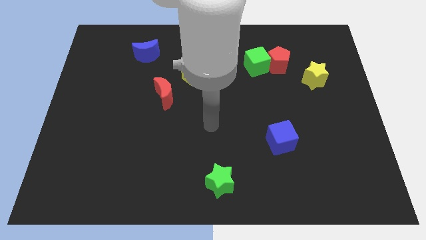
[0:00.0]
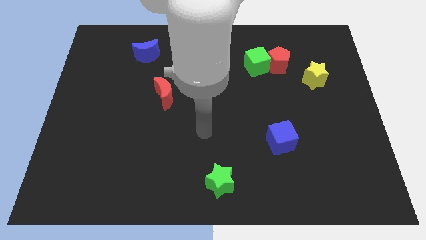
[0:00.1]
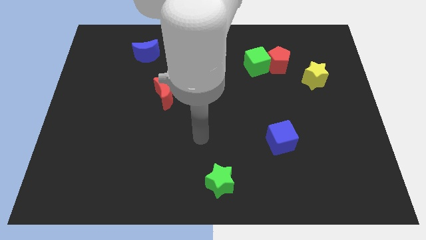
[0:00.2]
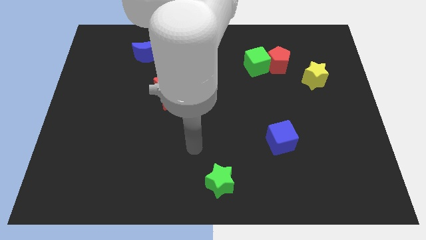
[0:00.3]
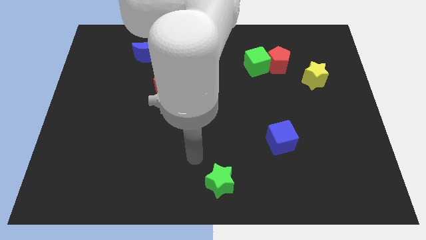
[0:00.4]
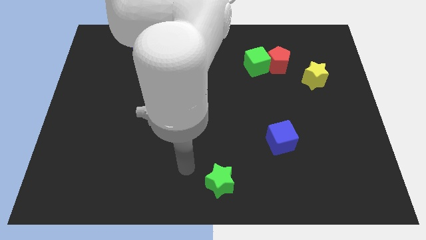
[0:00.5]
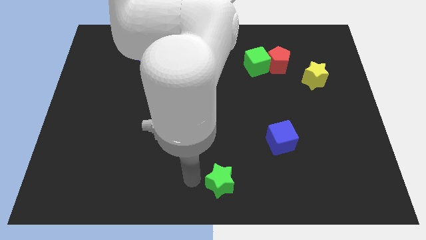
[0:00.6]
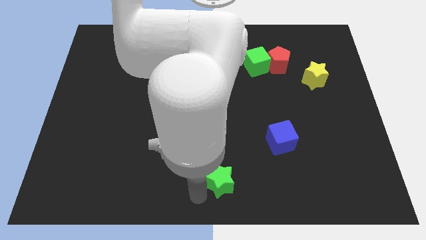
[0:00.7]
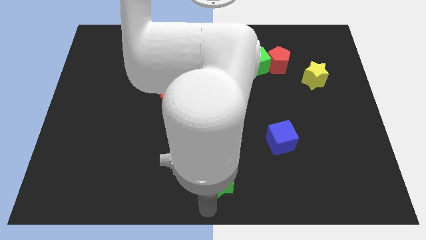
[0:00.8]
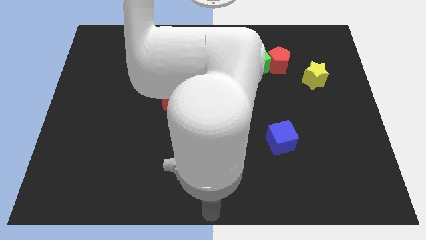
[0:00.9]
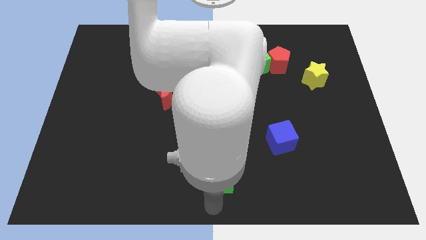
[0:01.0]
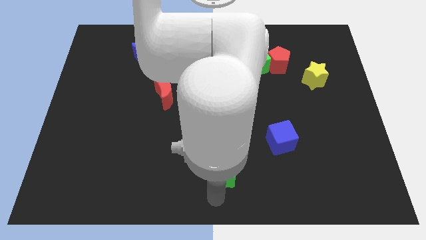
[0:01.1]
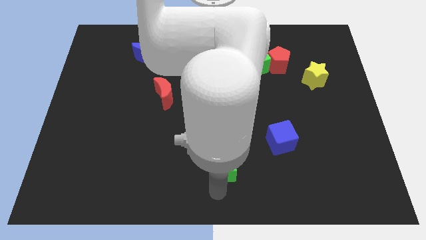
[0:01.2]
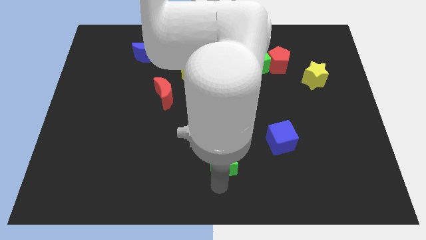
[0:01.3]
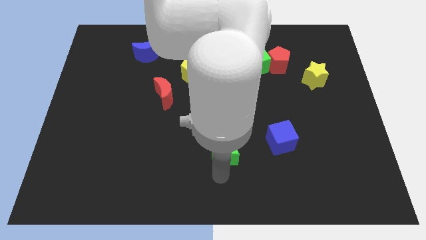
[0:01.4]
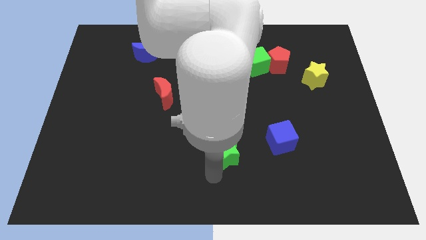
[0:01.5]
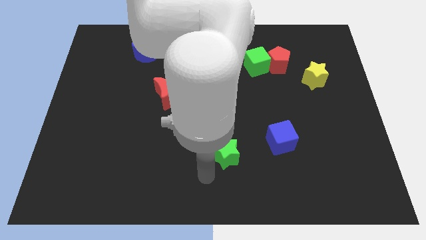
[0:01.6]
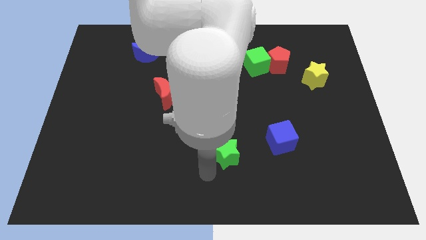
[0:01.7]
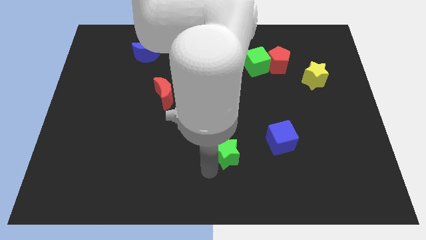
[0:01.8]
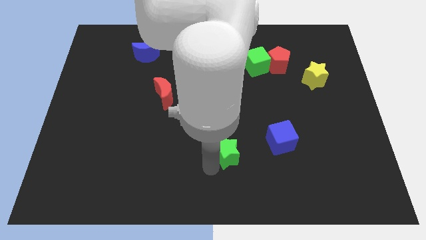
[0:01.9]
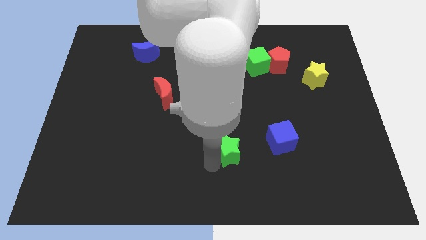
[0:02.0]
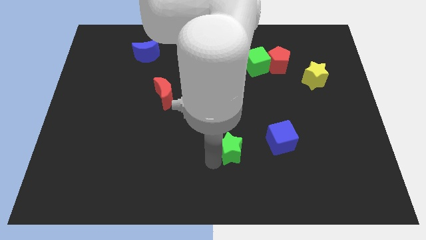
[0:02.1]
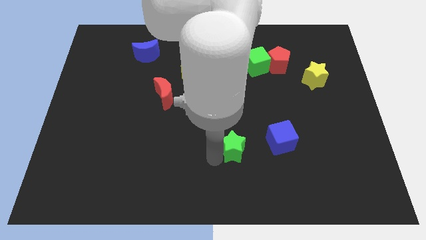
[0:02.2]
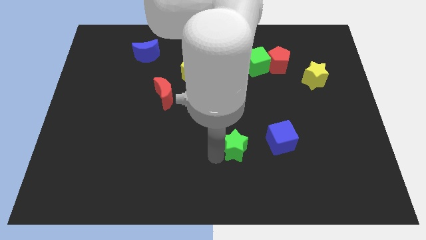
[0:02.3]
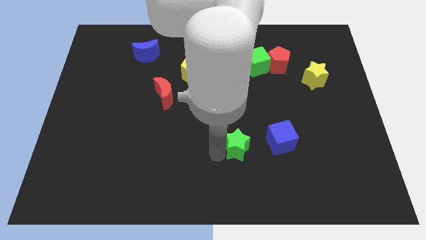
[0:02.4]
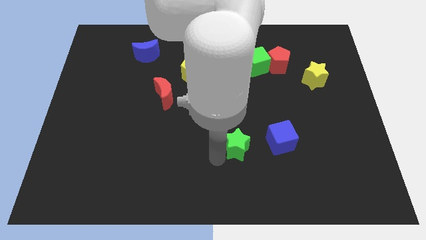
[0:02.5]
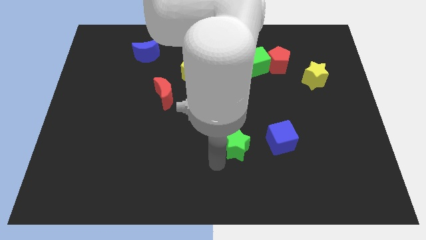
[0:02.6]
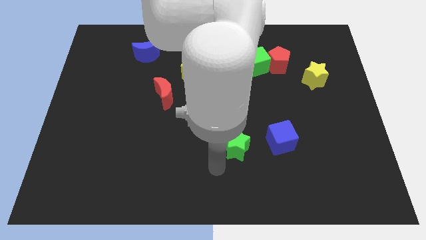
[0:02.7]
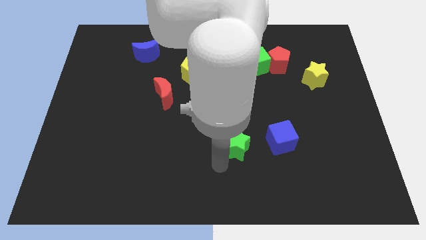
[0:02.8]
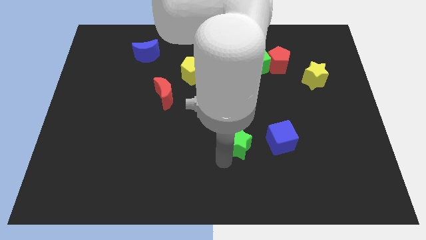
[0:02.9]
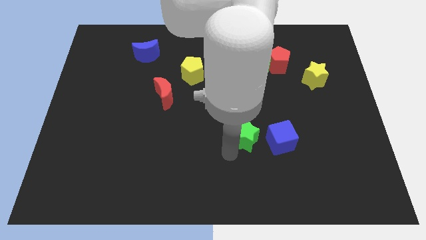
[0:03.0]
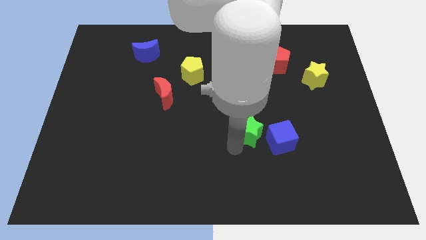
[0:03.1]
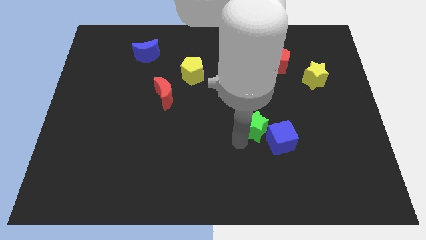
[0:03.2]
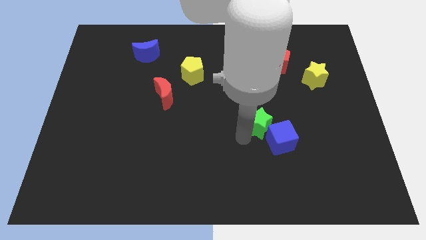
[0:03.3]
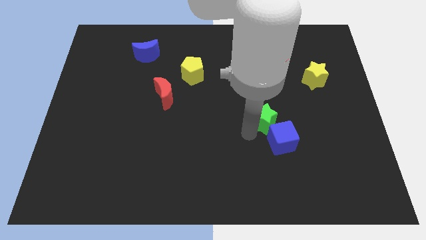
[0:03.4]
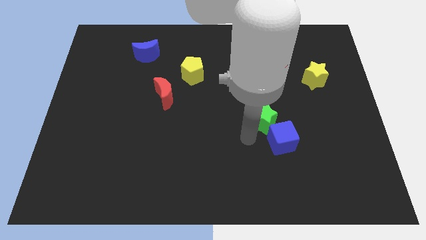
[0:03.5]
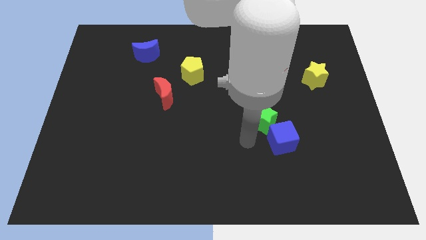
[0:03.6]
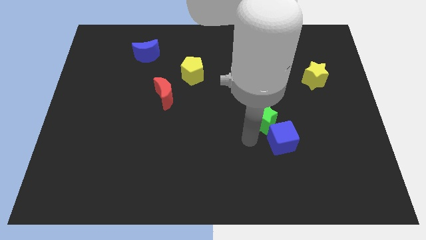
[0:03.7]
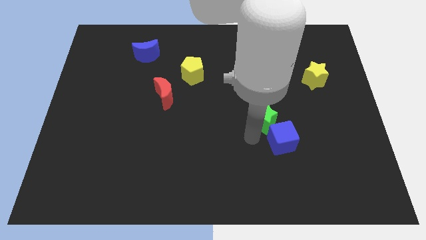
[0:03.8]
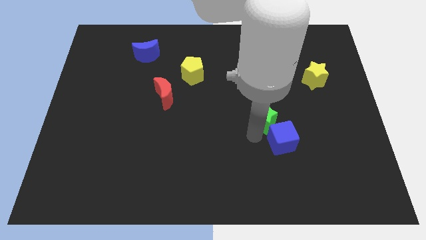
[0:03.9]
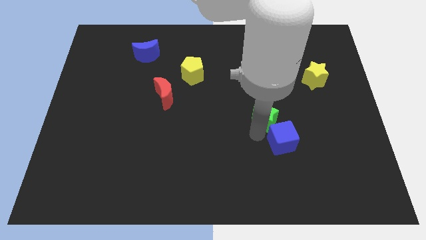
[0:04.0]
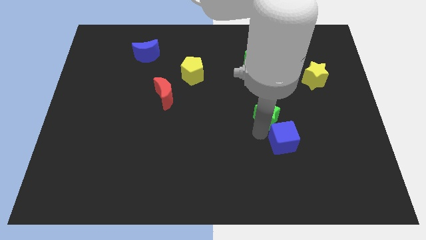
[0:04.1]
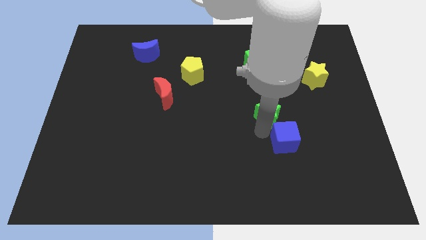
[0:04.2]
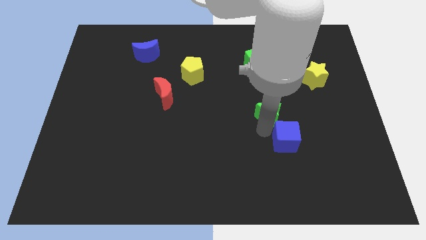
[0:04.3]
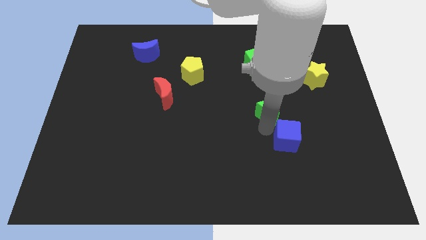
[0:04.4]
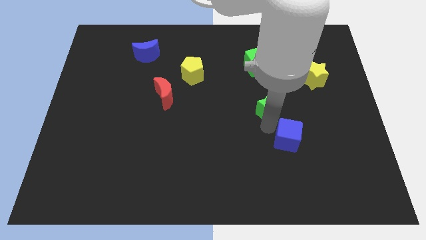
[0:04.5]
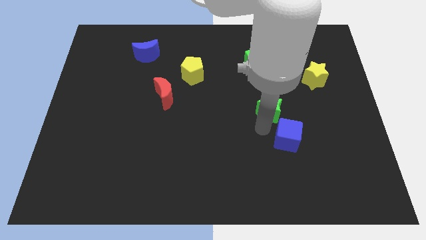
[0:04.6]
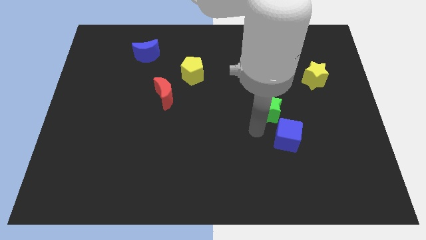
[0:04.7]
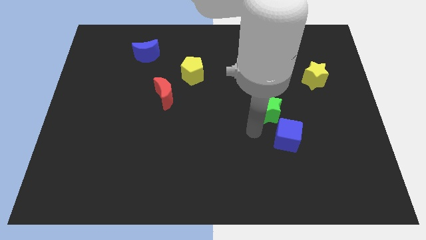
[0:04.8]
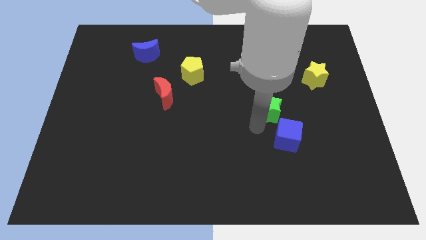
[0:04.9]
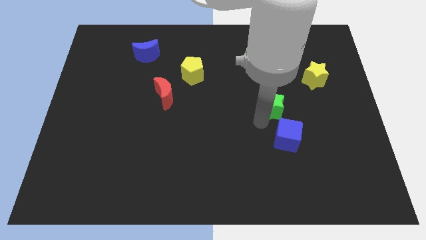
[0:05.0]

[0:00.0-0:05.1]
push the green star to the bottom side of the red pentagon

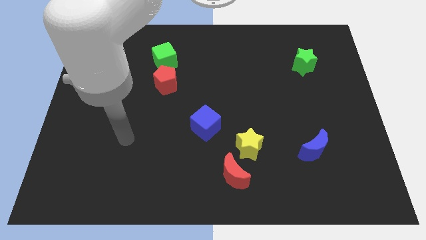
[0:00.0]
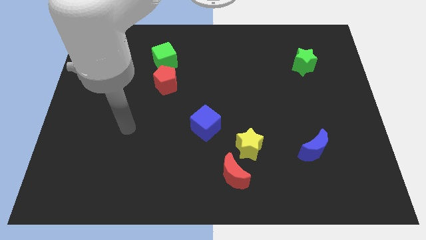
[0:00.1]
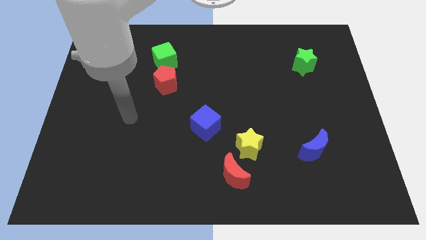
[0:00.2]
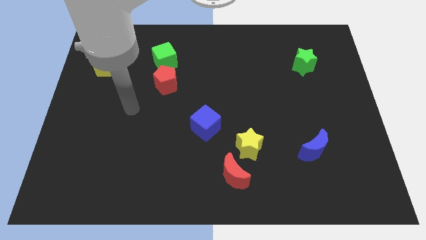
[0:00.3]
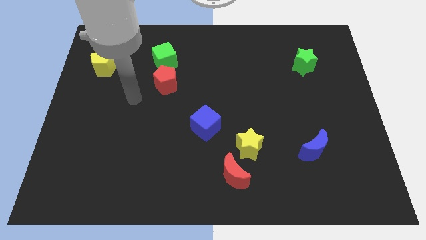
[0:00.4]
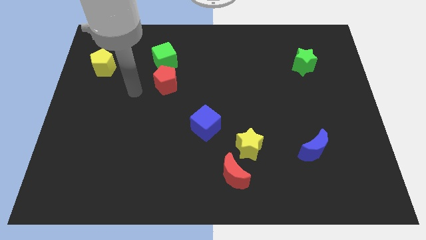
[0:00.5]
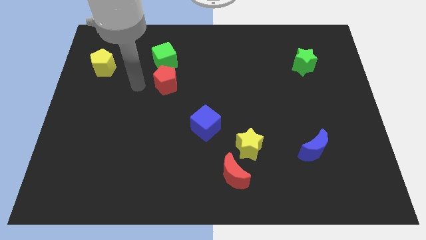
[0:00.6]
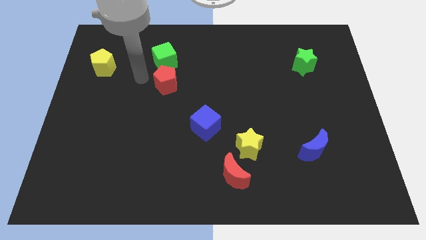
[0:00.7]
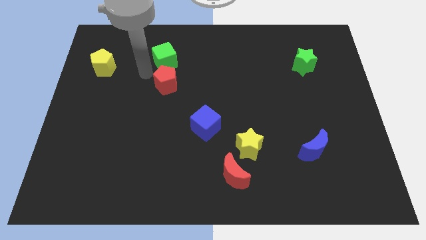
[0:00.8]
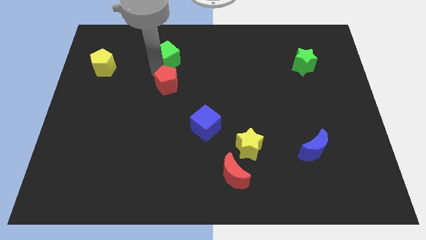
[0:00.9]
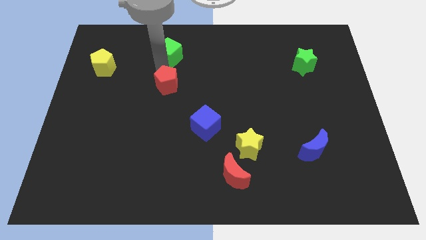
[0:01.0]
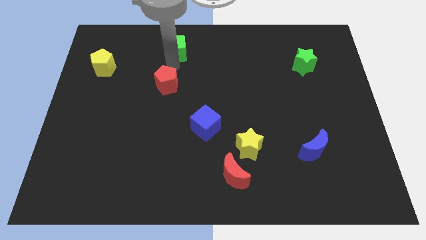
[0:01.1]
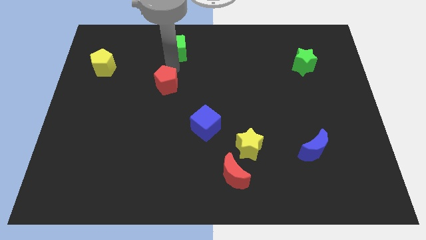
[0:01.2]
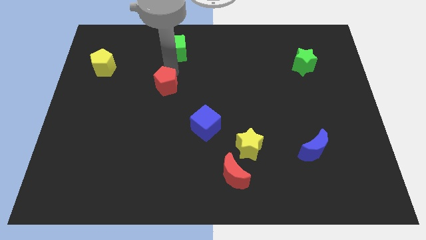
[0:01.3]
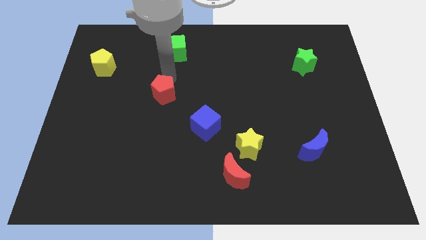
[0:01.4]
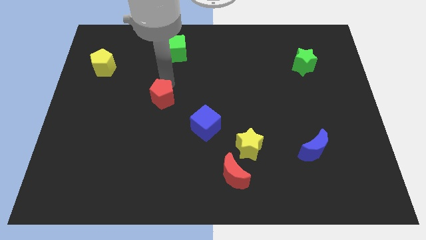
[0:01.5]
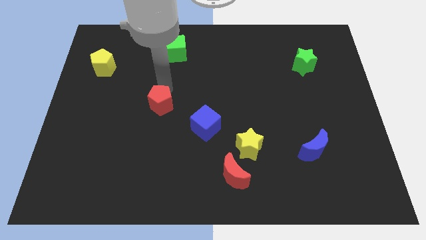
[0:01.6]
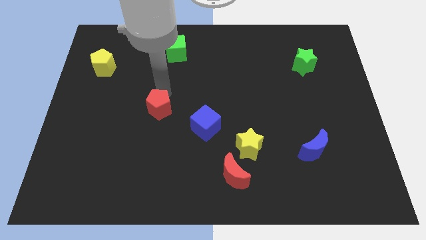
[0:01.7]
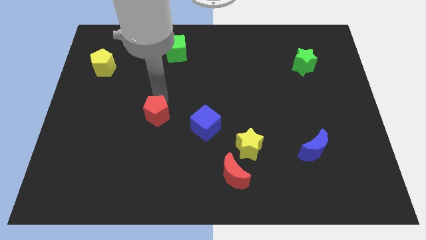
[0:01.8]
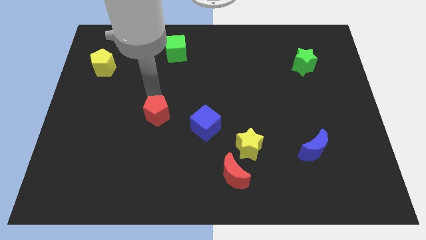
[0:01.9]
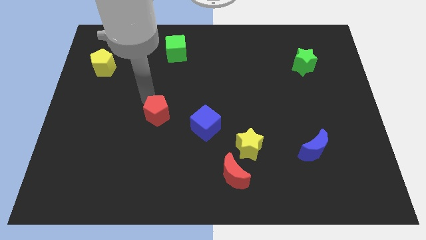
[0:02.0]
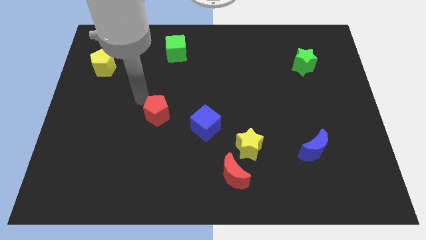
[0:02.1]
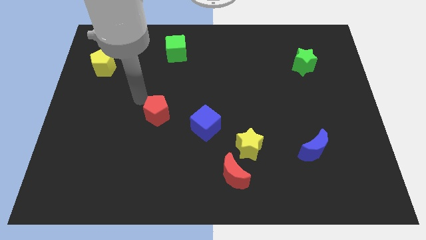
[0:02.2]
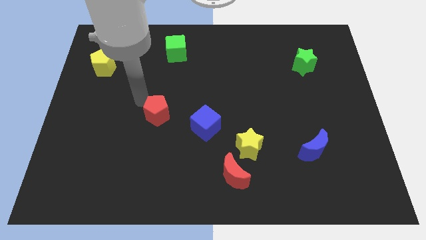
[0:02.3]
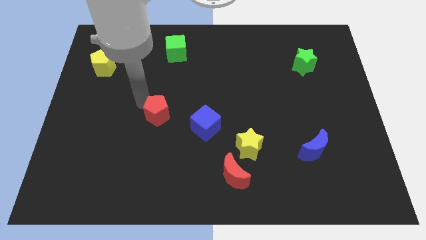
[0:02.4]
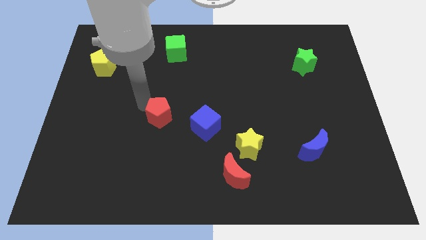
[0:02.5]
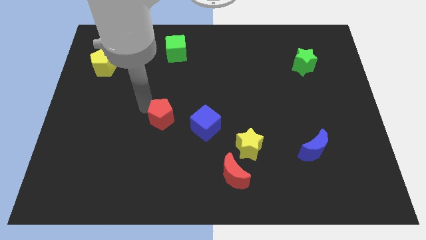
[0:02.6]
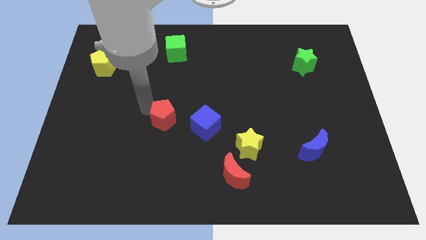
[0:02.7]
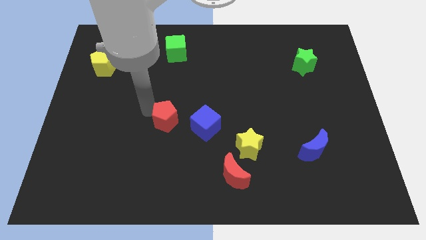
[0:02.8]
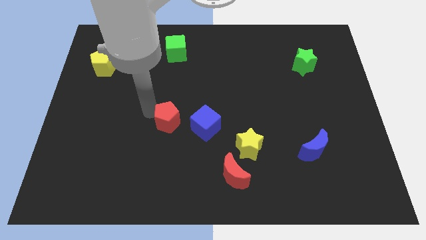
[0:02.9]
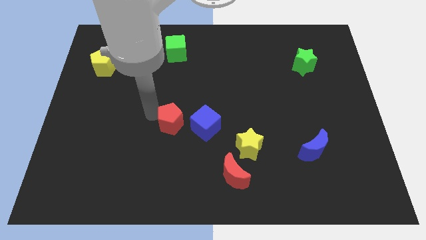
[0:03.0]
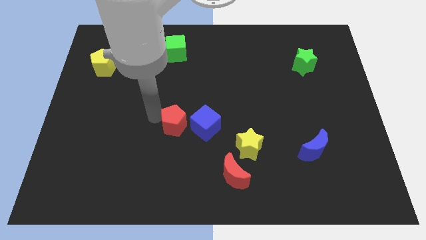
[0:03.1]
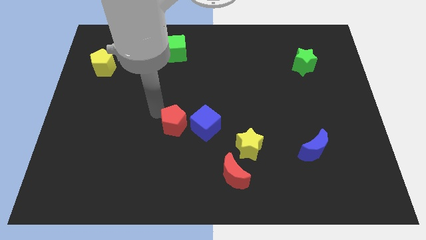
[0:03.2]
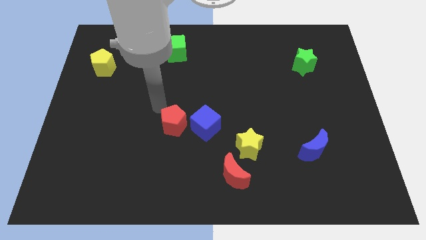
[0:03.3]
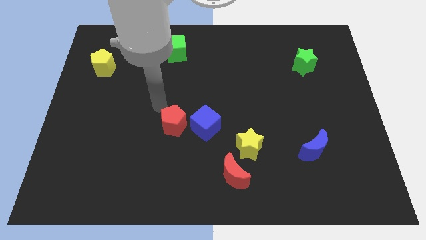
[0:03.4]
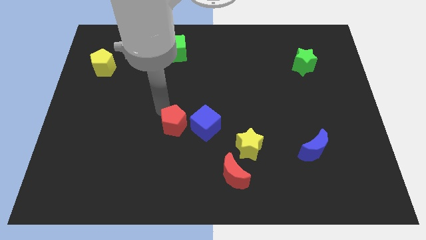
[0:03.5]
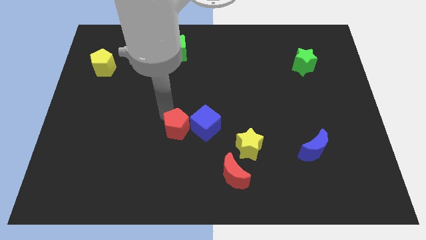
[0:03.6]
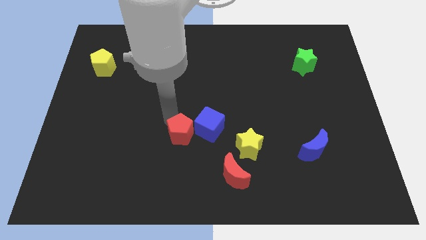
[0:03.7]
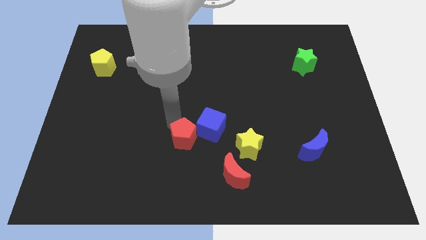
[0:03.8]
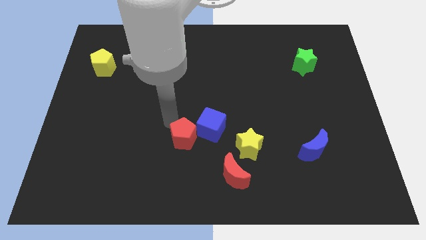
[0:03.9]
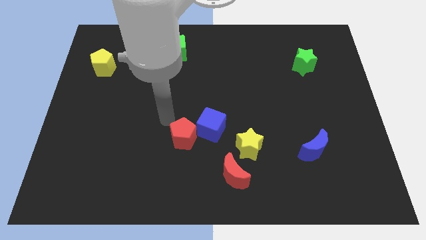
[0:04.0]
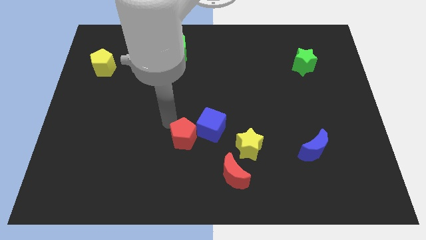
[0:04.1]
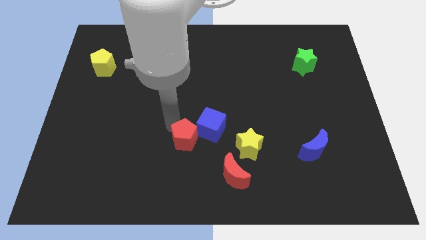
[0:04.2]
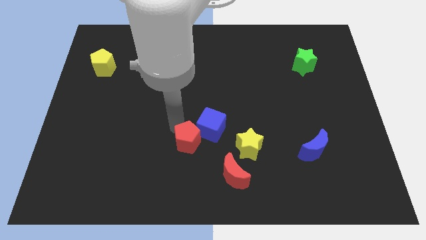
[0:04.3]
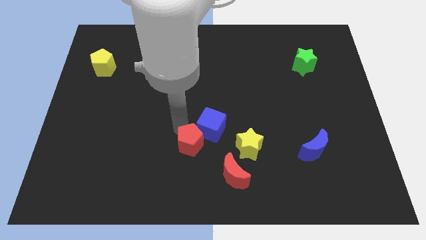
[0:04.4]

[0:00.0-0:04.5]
move the red pentagon below the blue cube
